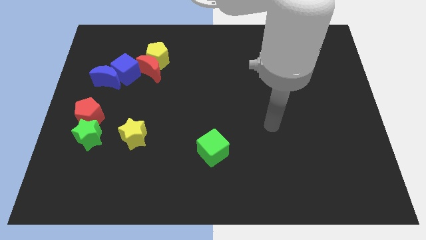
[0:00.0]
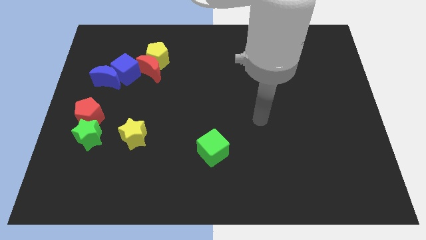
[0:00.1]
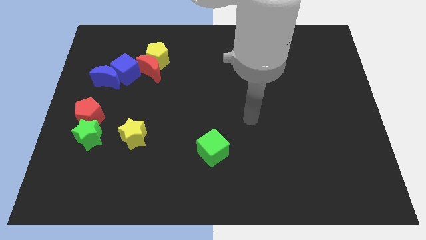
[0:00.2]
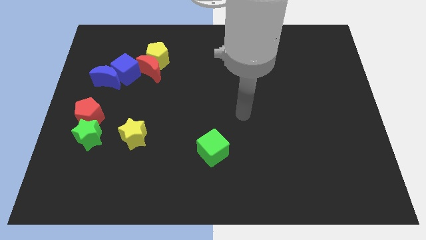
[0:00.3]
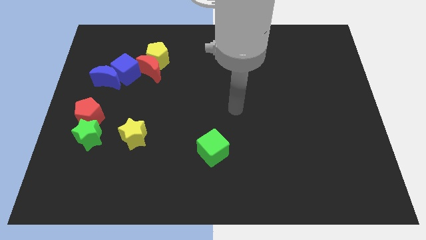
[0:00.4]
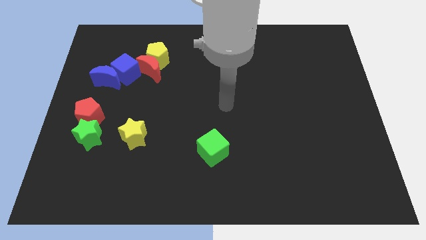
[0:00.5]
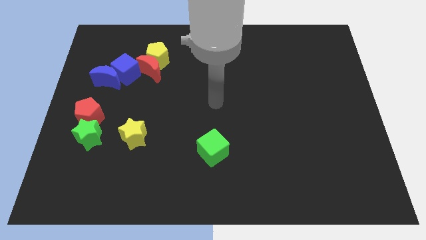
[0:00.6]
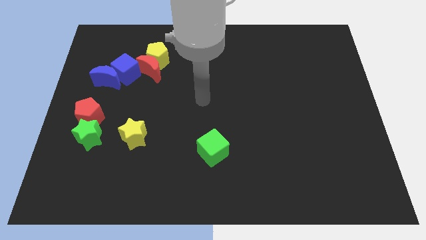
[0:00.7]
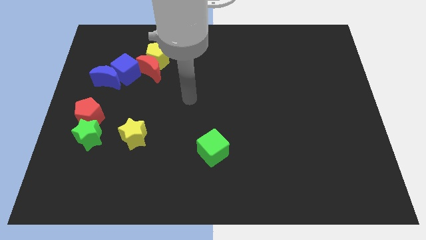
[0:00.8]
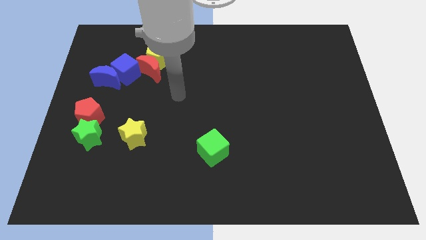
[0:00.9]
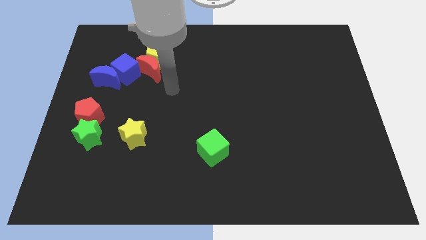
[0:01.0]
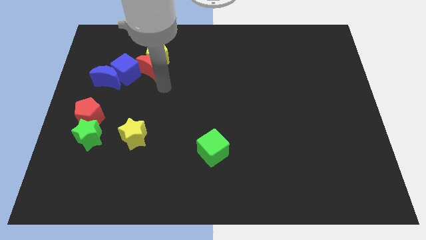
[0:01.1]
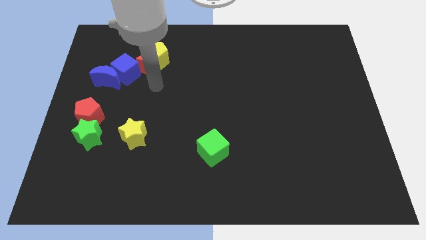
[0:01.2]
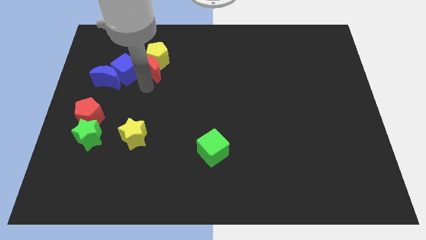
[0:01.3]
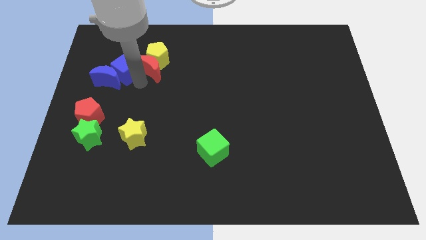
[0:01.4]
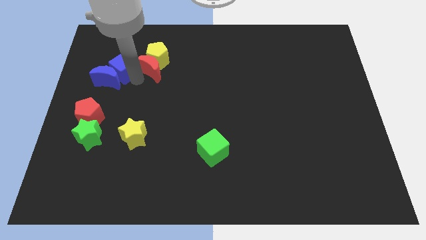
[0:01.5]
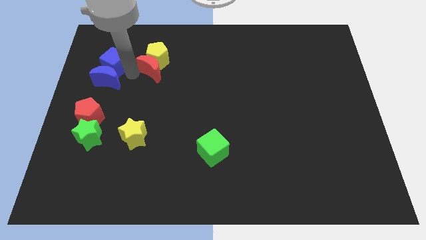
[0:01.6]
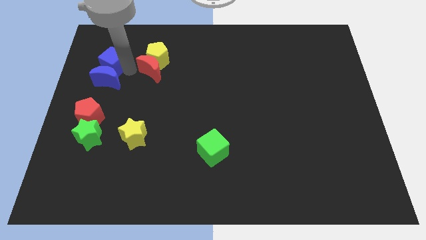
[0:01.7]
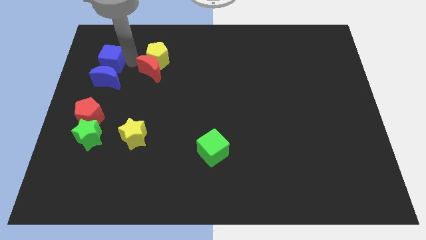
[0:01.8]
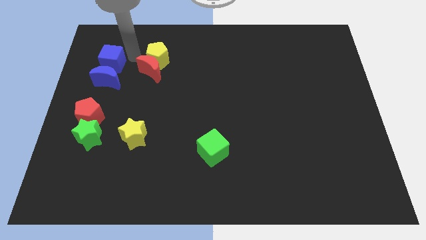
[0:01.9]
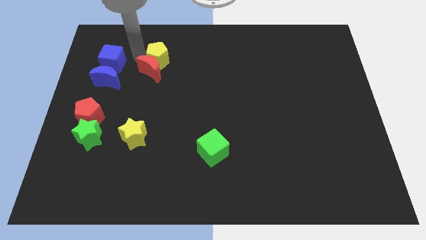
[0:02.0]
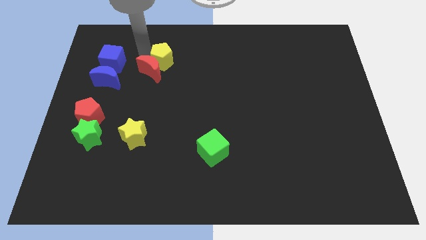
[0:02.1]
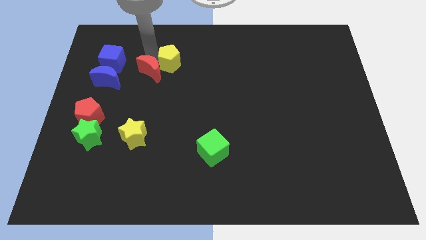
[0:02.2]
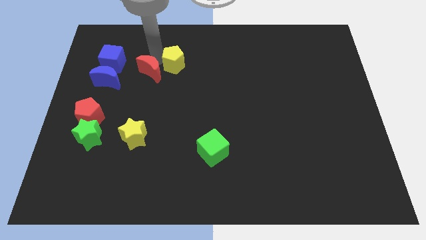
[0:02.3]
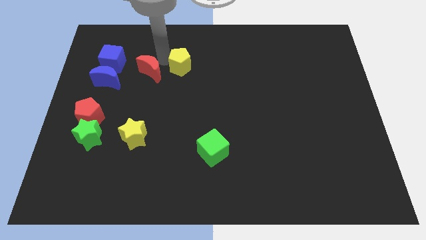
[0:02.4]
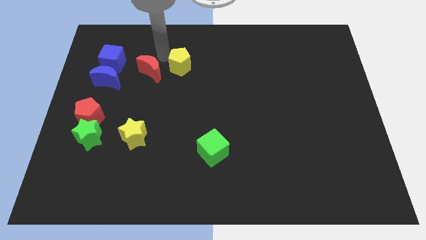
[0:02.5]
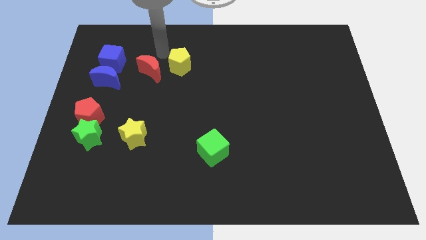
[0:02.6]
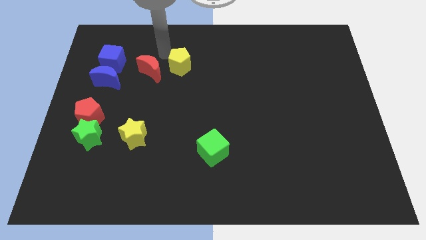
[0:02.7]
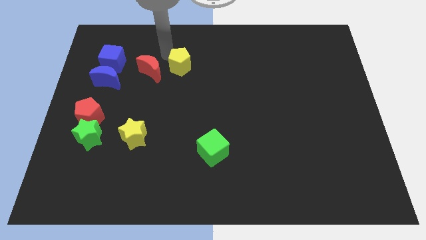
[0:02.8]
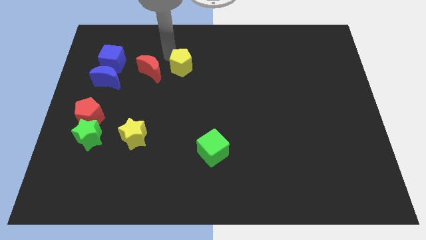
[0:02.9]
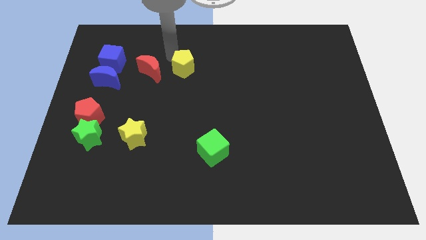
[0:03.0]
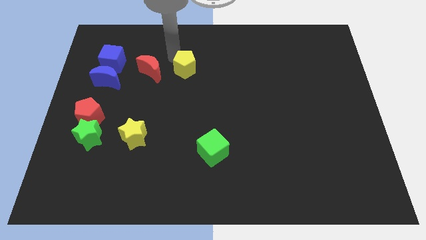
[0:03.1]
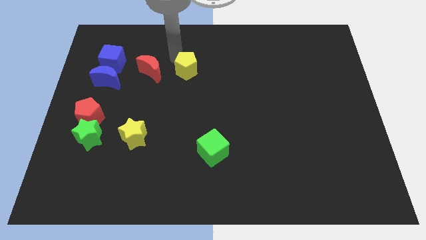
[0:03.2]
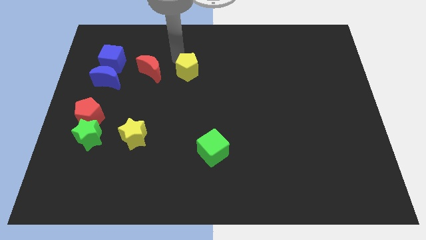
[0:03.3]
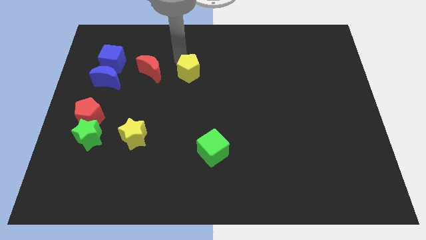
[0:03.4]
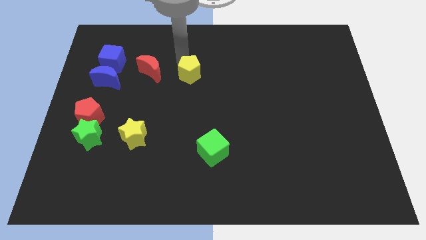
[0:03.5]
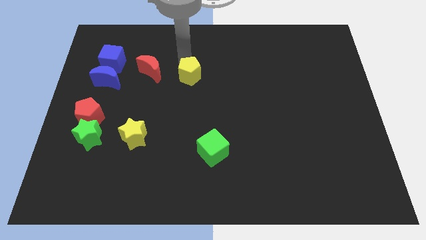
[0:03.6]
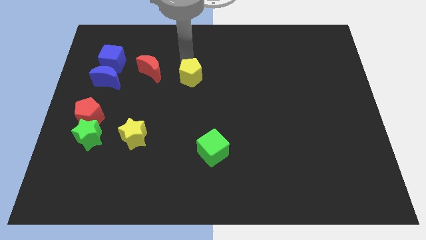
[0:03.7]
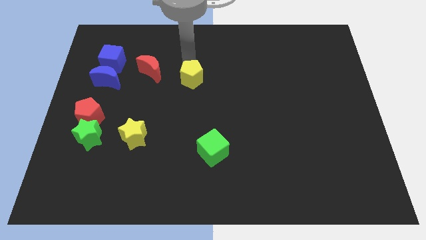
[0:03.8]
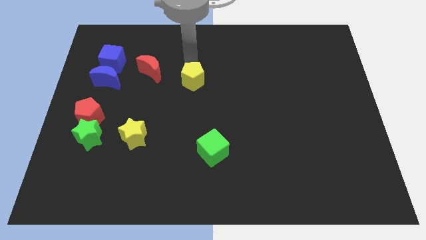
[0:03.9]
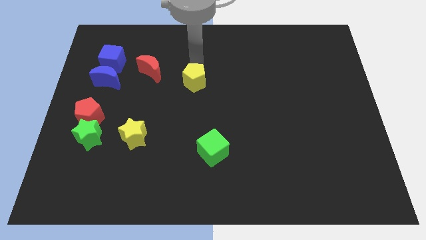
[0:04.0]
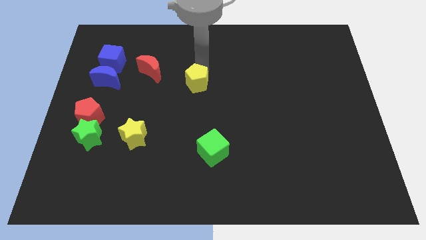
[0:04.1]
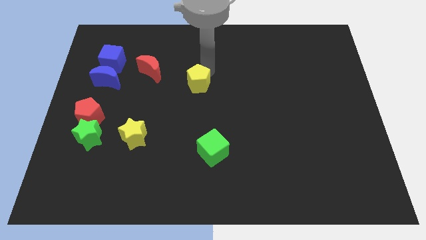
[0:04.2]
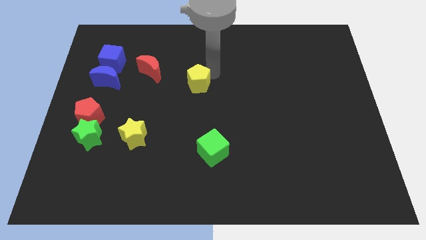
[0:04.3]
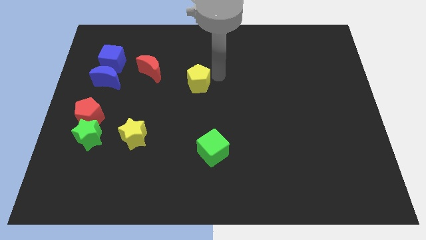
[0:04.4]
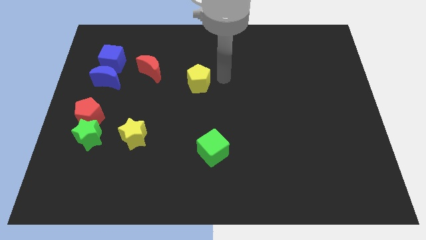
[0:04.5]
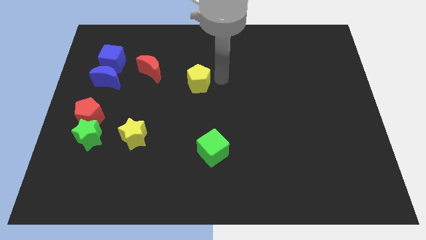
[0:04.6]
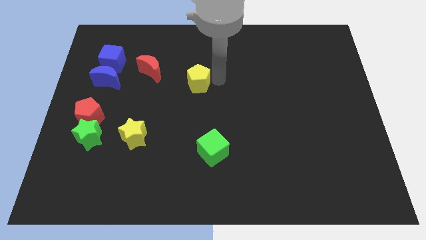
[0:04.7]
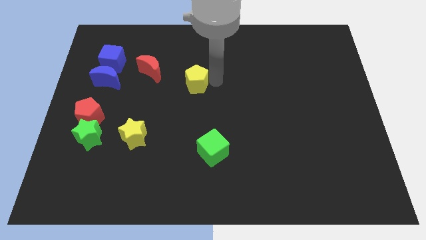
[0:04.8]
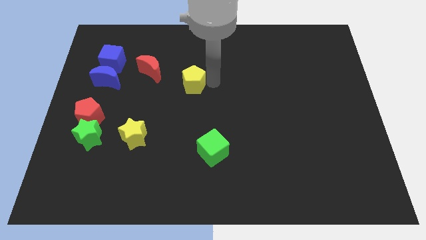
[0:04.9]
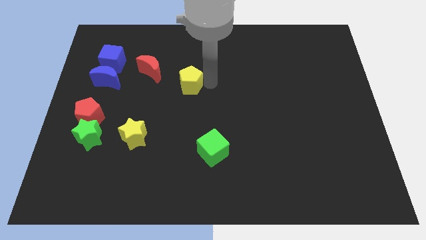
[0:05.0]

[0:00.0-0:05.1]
slide the yellow pentagon to the bottom right of the red moon

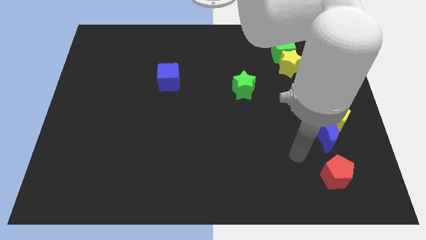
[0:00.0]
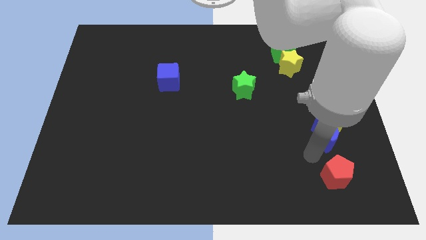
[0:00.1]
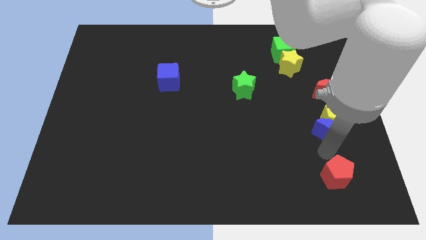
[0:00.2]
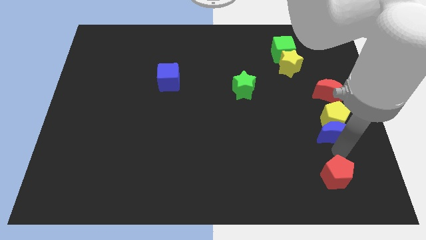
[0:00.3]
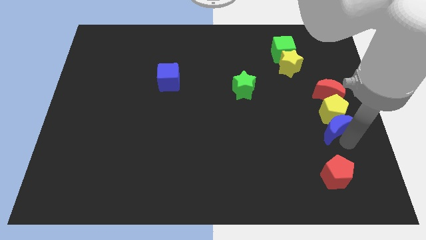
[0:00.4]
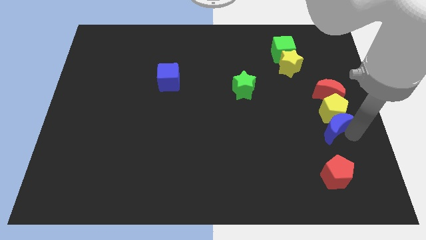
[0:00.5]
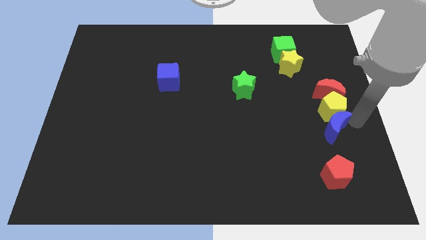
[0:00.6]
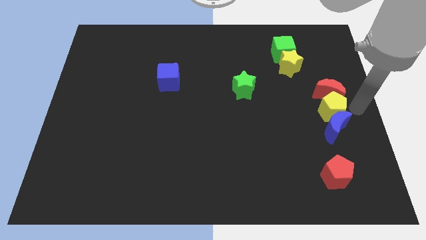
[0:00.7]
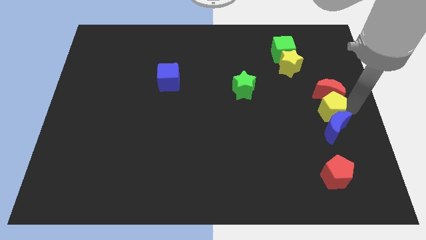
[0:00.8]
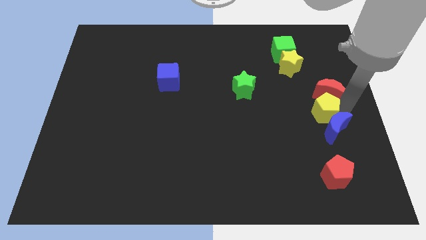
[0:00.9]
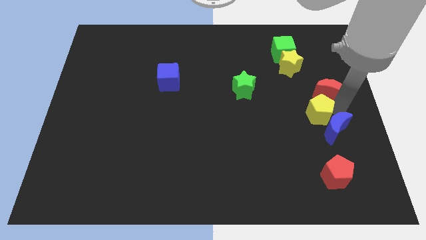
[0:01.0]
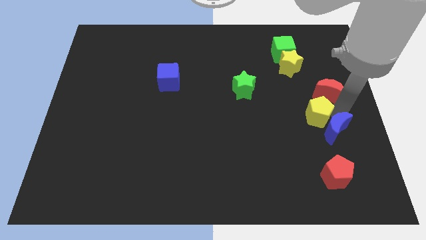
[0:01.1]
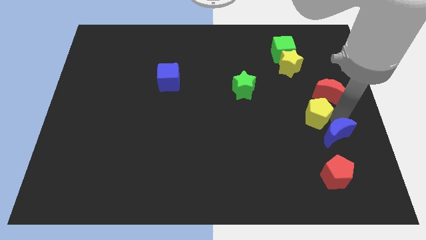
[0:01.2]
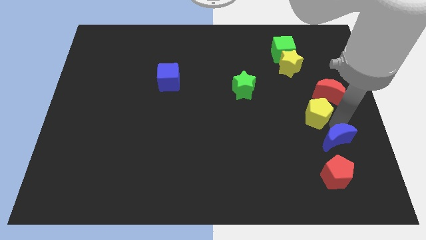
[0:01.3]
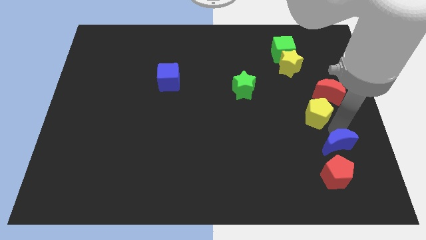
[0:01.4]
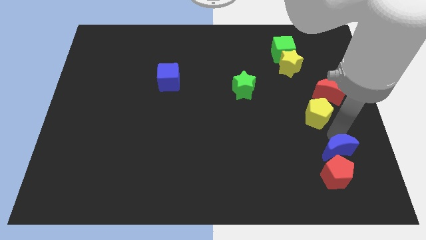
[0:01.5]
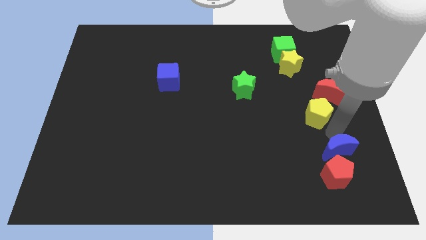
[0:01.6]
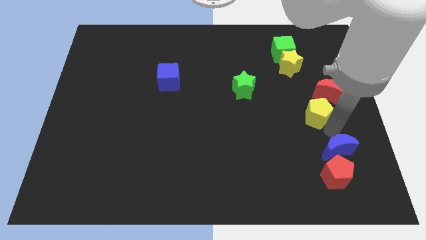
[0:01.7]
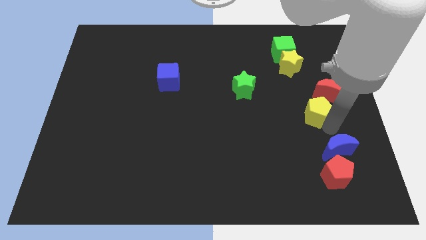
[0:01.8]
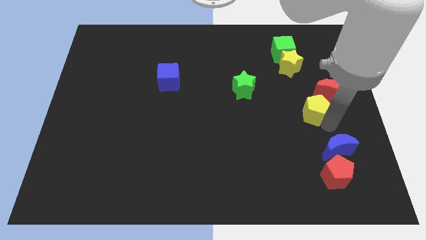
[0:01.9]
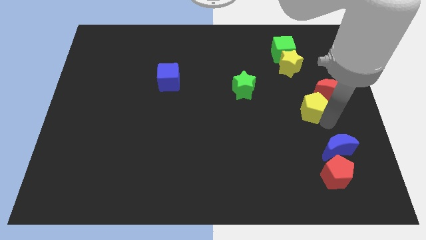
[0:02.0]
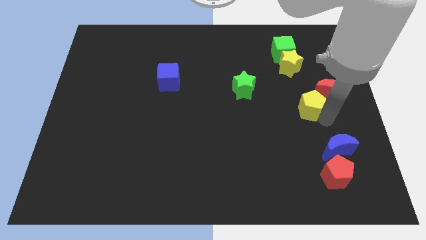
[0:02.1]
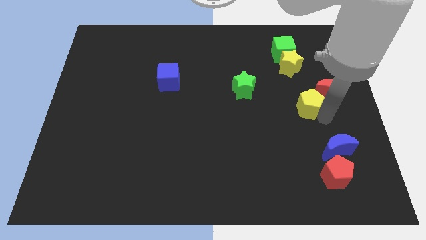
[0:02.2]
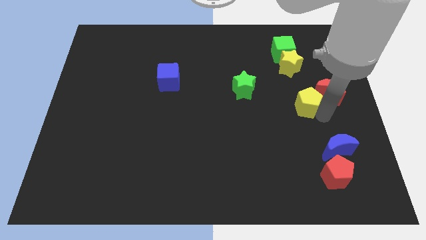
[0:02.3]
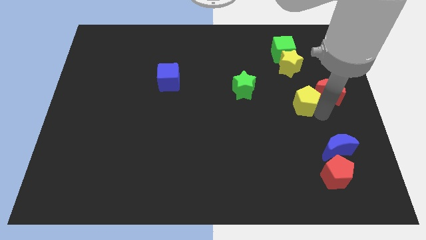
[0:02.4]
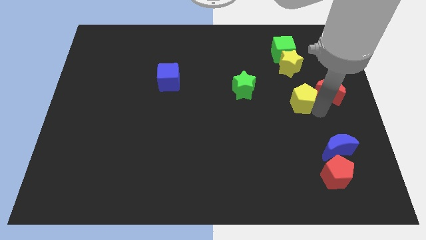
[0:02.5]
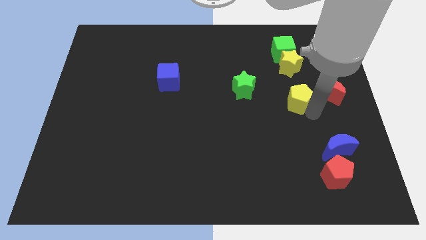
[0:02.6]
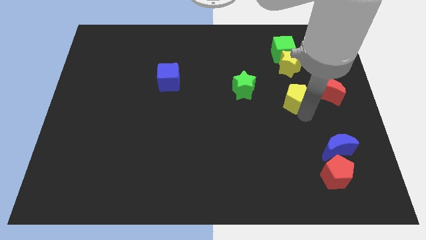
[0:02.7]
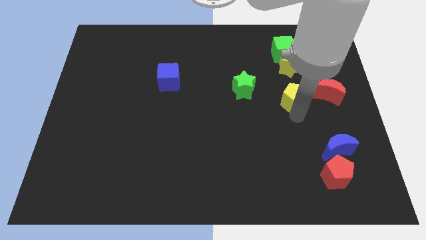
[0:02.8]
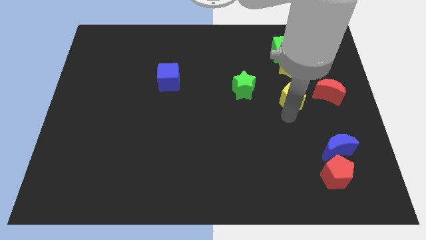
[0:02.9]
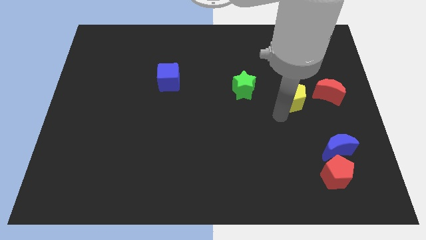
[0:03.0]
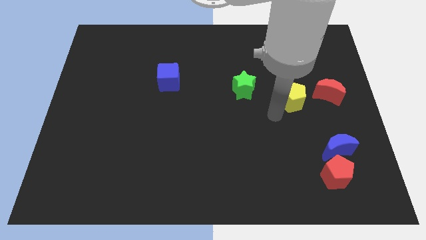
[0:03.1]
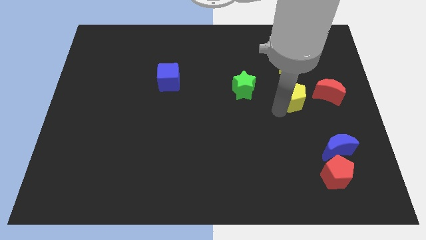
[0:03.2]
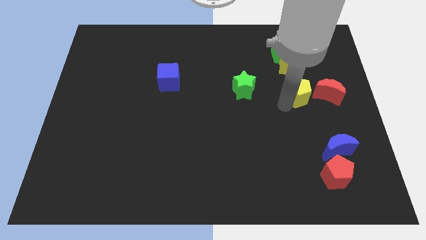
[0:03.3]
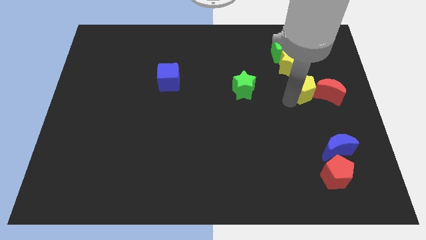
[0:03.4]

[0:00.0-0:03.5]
push the yellow pentagon to the bottom right of the yellow star

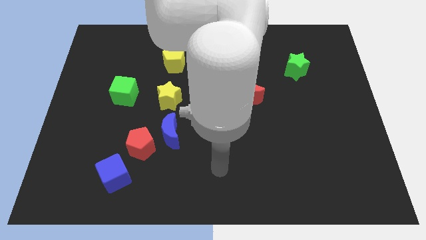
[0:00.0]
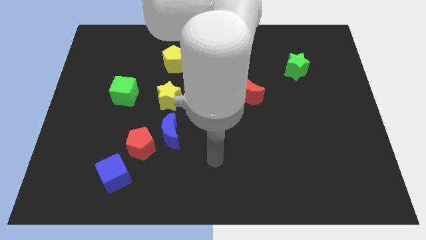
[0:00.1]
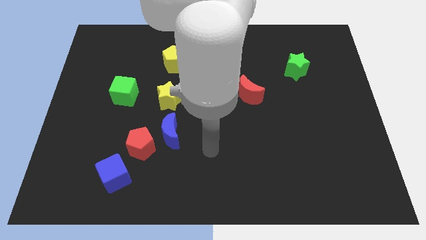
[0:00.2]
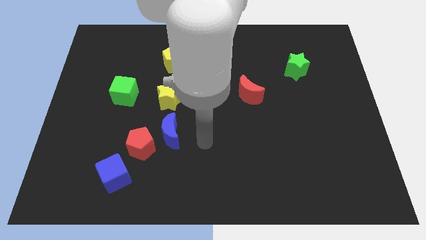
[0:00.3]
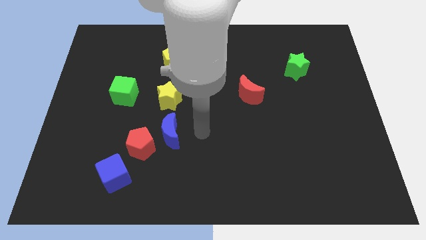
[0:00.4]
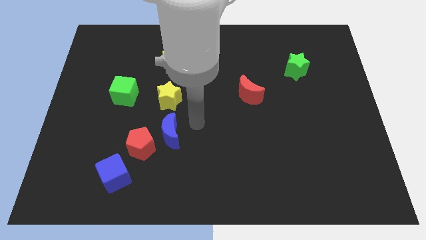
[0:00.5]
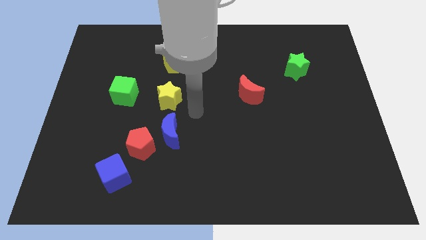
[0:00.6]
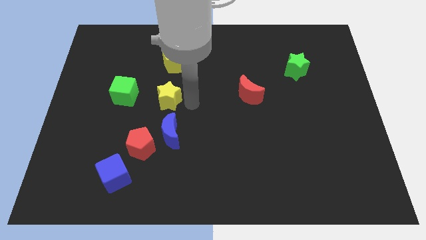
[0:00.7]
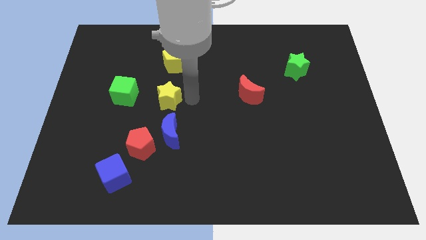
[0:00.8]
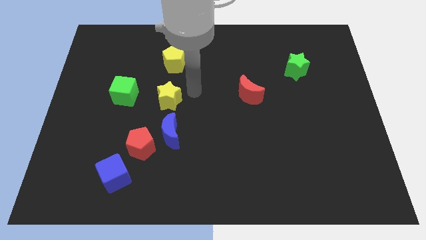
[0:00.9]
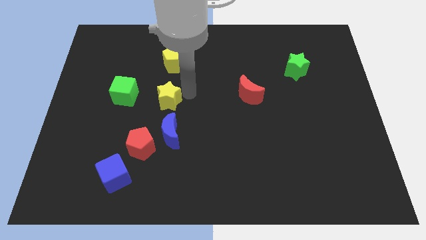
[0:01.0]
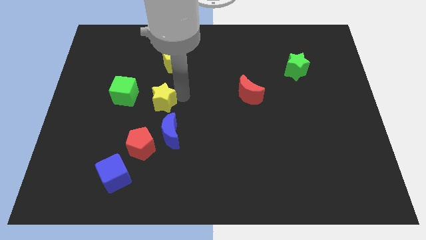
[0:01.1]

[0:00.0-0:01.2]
slide the yellow star to the top of the red pentagon
